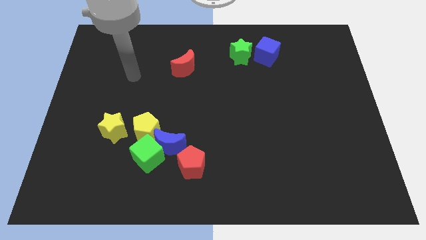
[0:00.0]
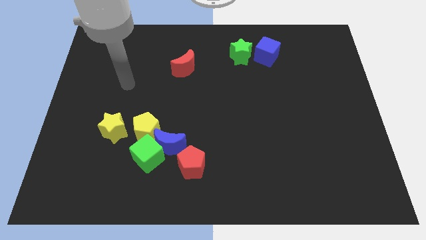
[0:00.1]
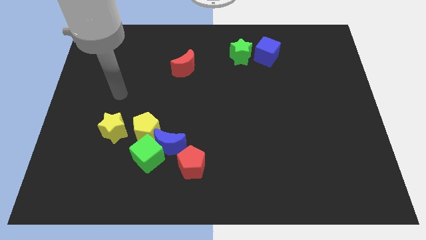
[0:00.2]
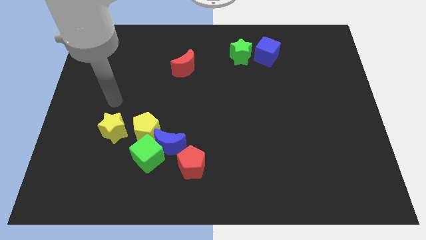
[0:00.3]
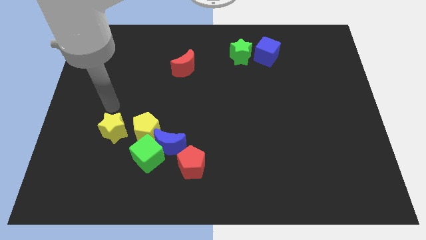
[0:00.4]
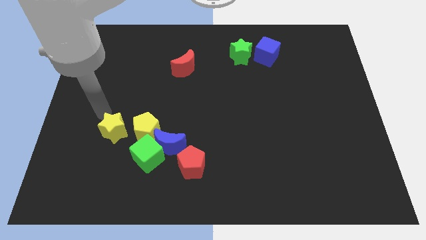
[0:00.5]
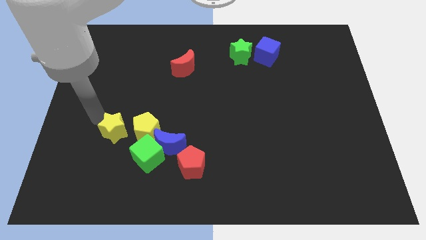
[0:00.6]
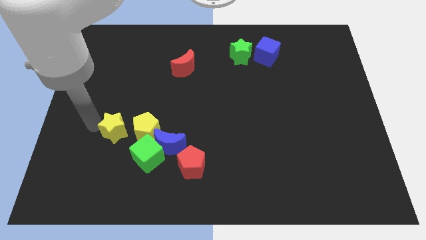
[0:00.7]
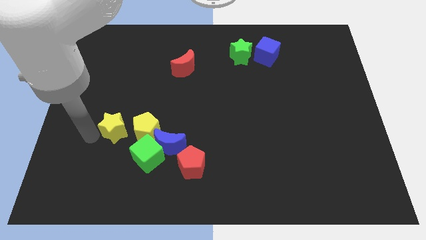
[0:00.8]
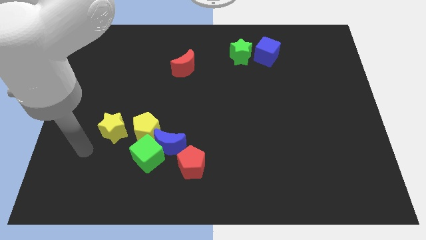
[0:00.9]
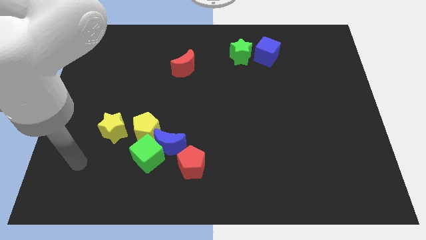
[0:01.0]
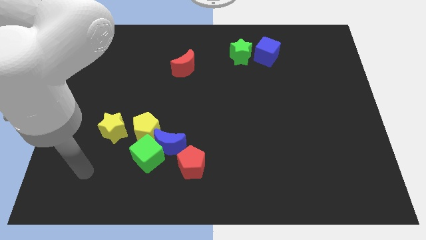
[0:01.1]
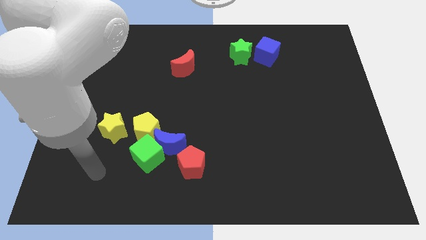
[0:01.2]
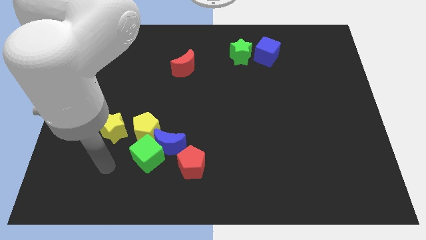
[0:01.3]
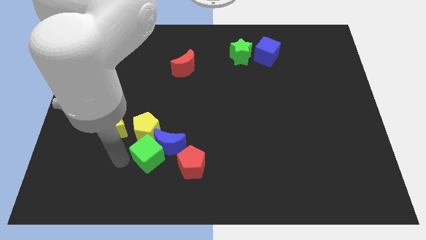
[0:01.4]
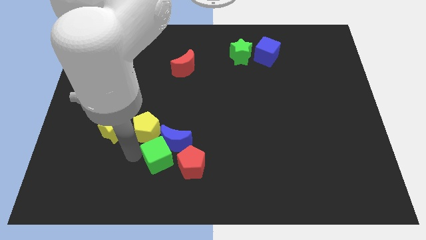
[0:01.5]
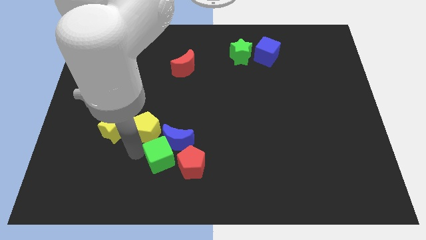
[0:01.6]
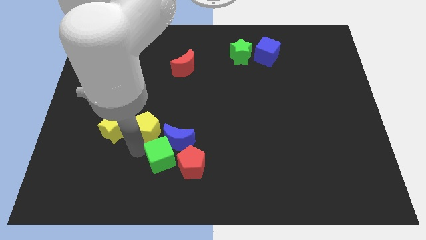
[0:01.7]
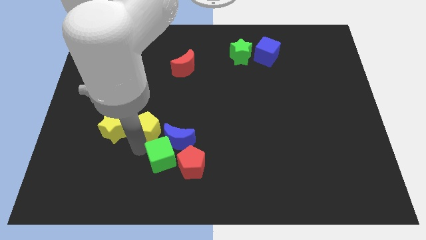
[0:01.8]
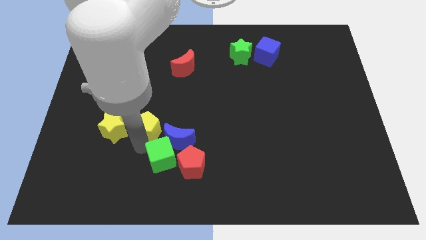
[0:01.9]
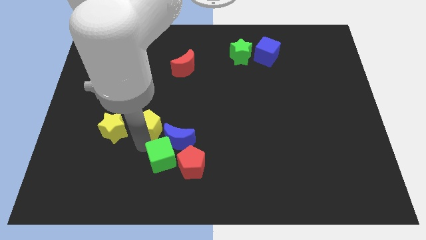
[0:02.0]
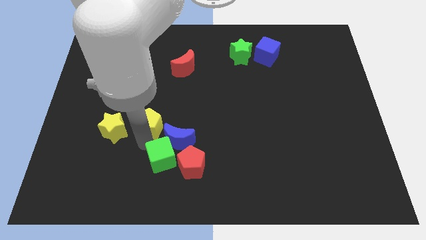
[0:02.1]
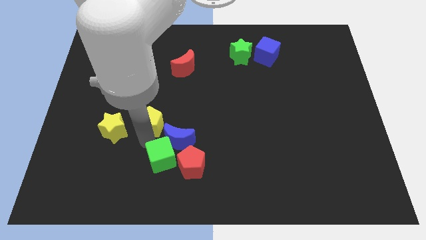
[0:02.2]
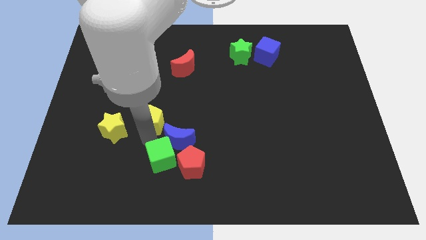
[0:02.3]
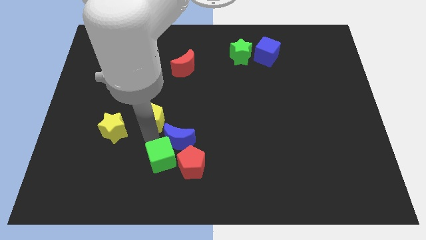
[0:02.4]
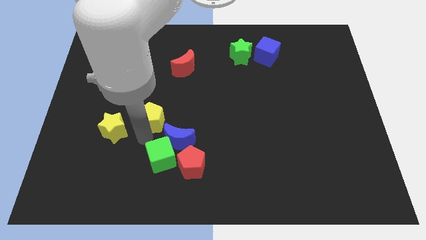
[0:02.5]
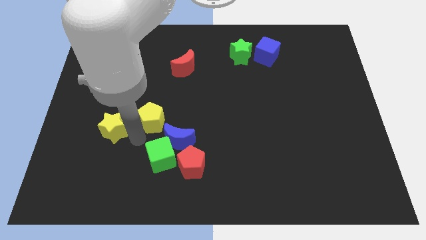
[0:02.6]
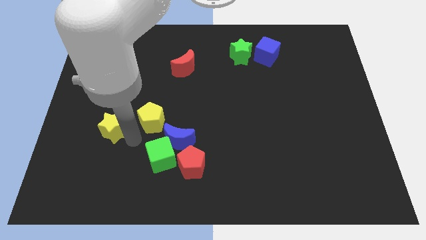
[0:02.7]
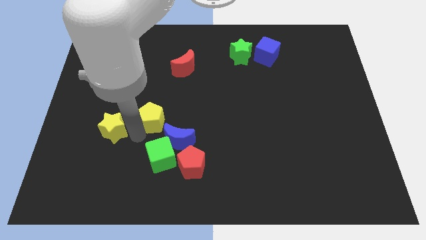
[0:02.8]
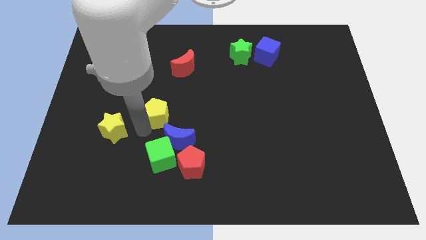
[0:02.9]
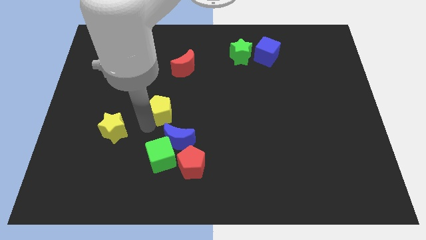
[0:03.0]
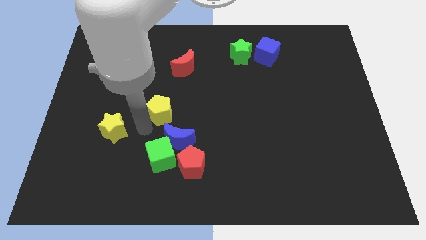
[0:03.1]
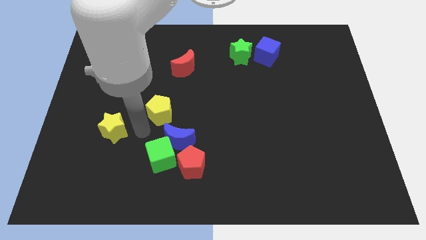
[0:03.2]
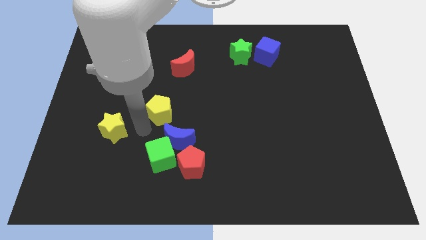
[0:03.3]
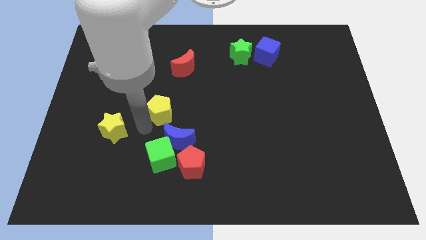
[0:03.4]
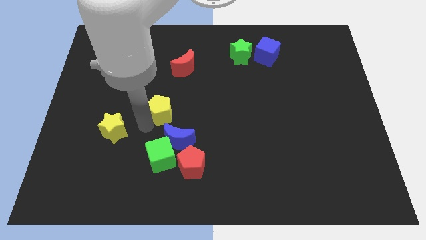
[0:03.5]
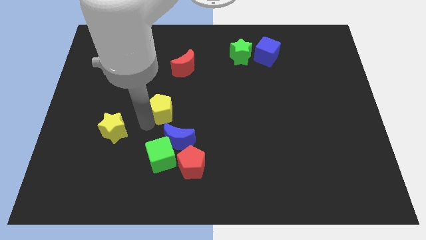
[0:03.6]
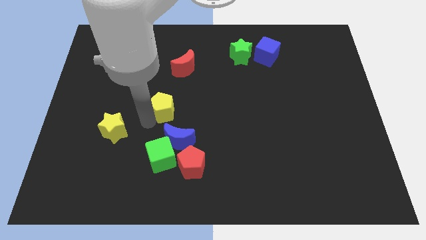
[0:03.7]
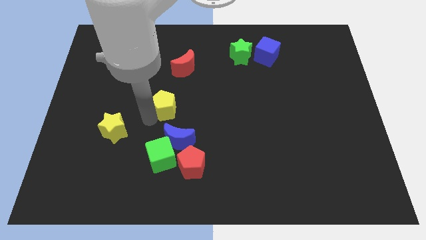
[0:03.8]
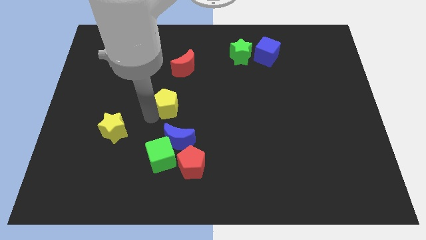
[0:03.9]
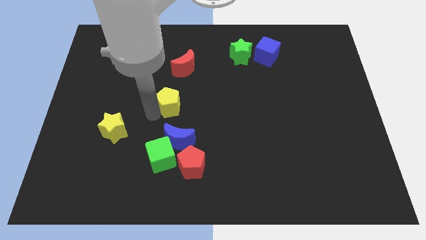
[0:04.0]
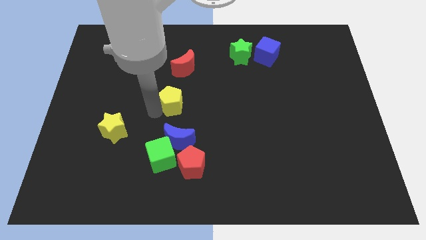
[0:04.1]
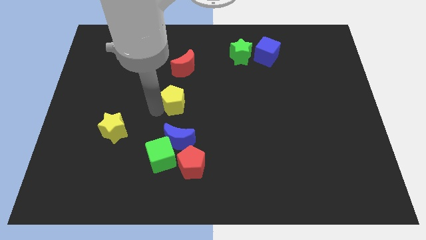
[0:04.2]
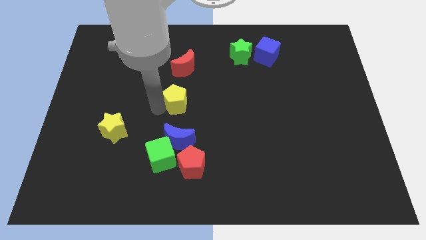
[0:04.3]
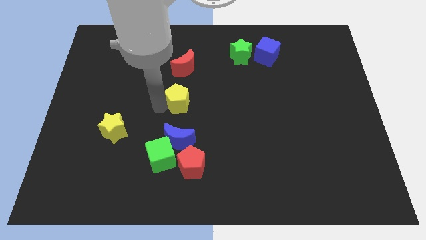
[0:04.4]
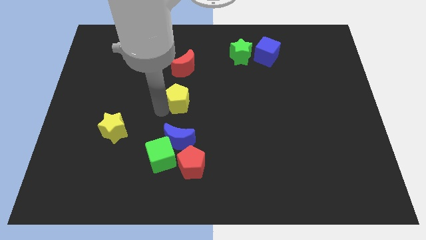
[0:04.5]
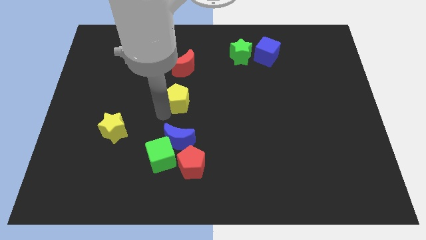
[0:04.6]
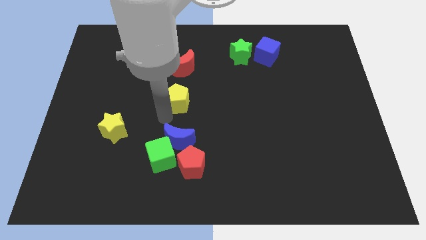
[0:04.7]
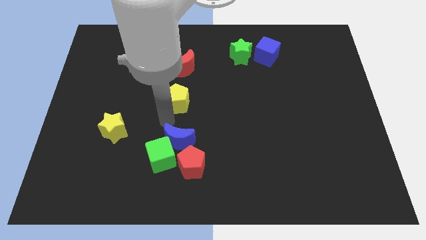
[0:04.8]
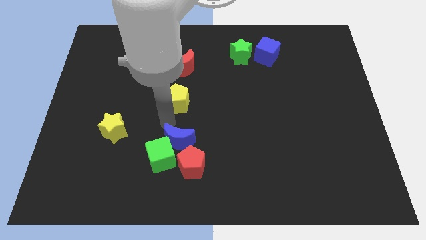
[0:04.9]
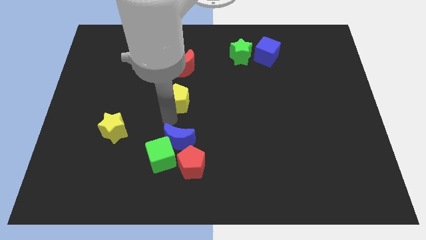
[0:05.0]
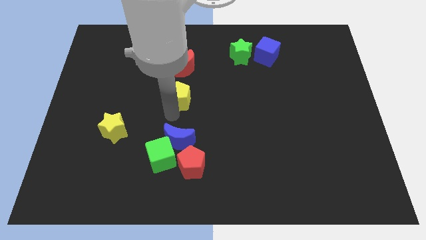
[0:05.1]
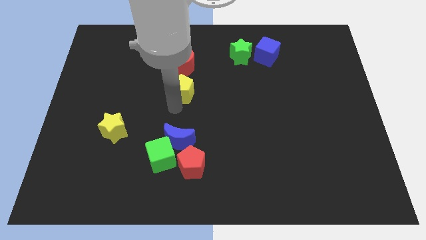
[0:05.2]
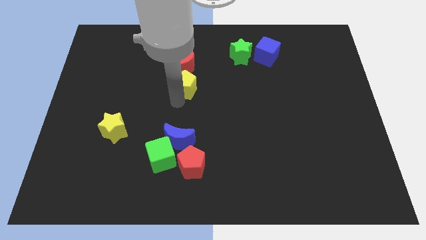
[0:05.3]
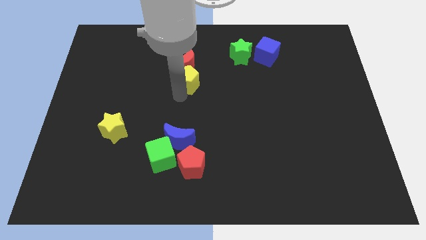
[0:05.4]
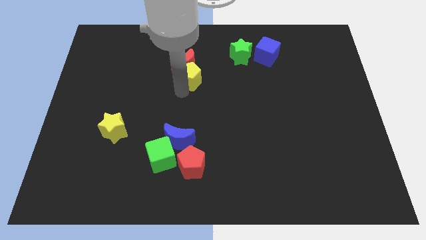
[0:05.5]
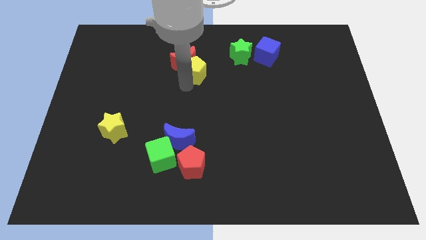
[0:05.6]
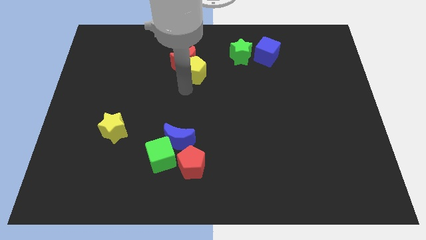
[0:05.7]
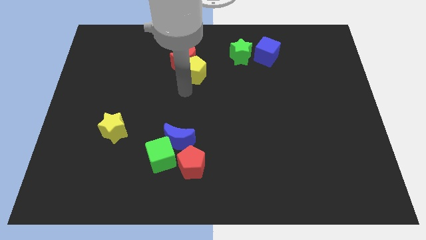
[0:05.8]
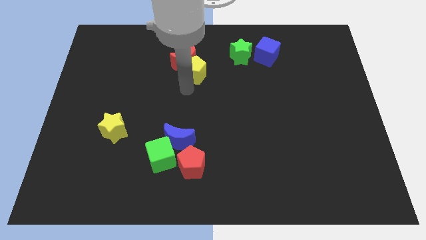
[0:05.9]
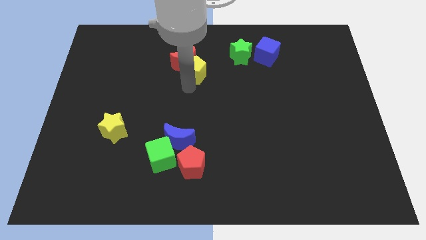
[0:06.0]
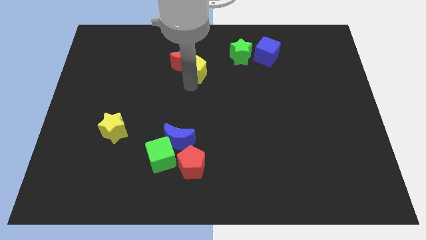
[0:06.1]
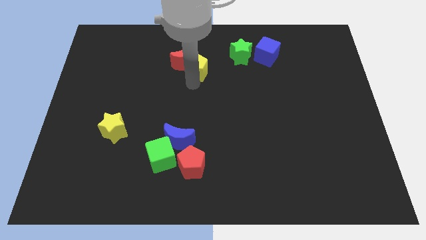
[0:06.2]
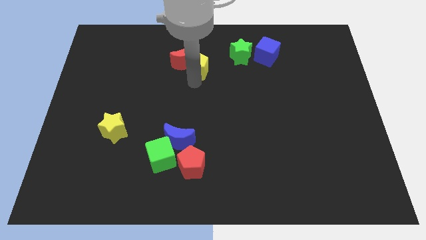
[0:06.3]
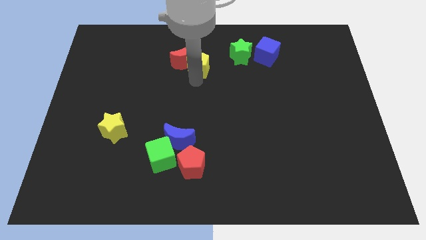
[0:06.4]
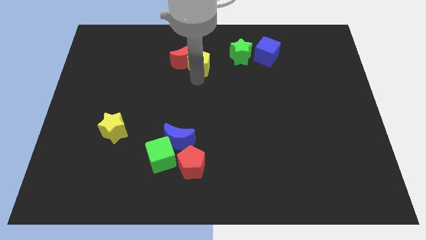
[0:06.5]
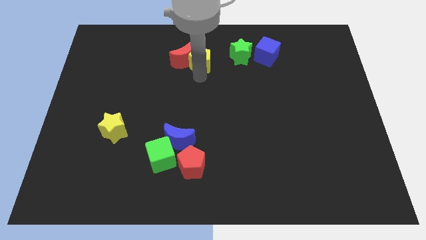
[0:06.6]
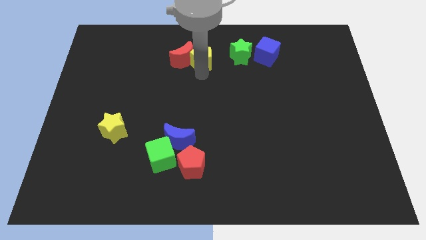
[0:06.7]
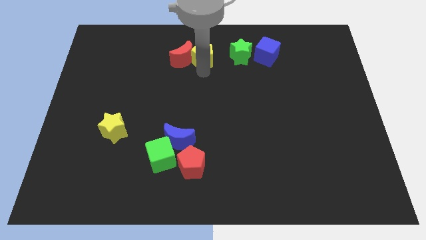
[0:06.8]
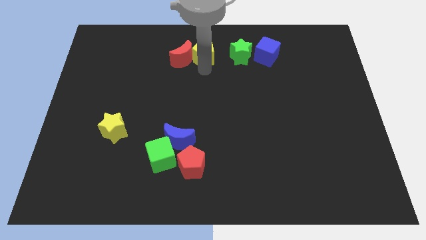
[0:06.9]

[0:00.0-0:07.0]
push the yellow pentagon to the towards your base
